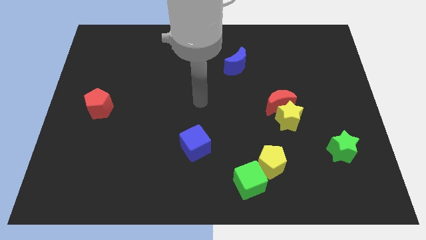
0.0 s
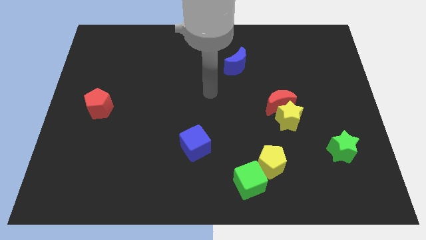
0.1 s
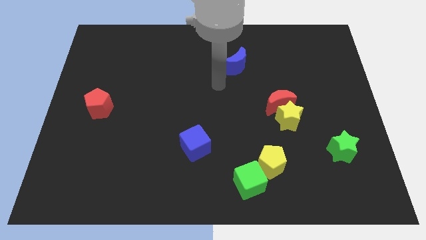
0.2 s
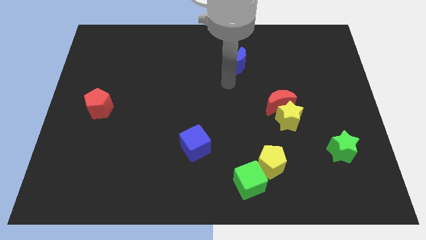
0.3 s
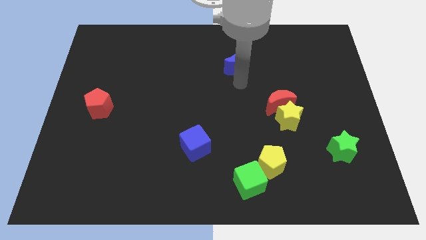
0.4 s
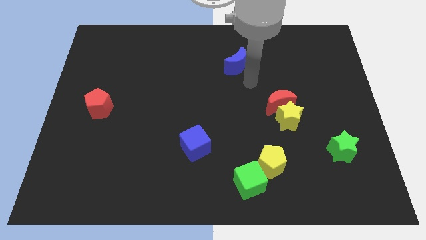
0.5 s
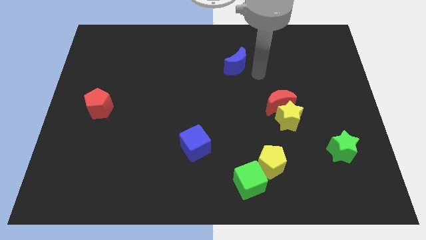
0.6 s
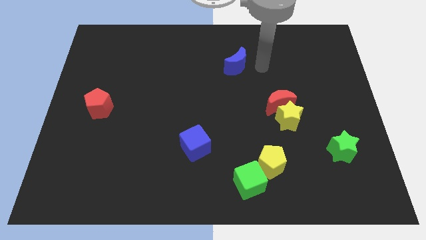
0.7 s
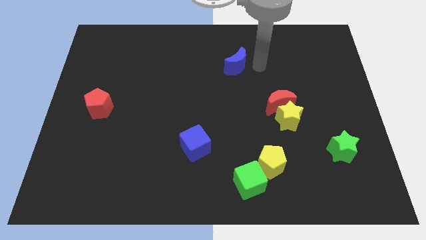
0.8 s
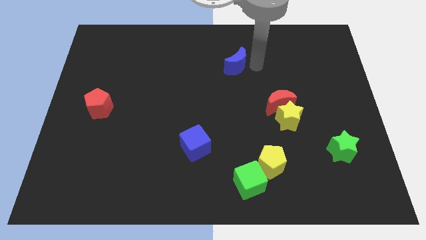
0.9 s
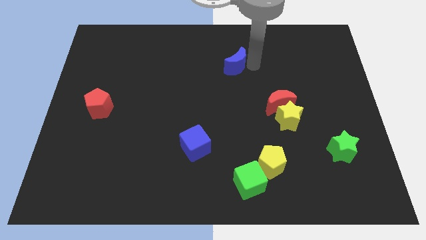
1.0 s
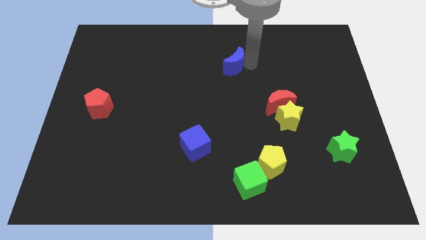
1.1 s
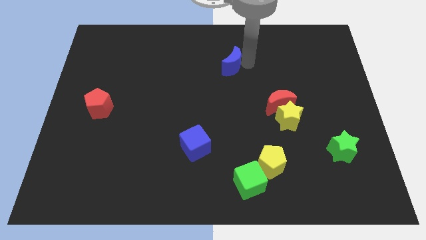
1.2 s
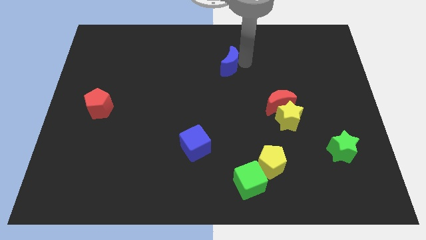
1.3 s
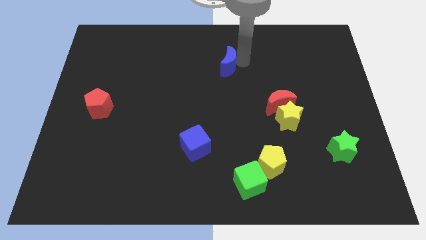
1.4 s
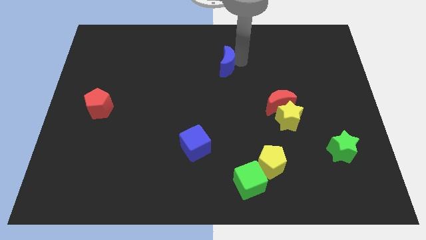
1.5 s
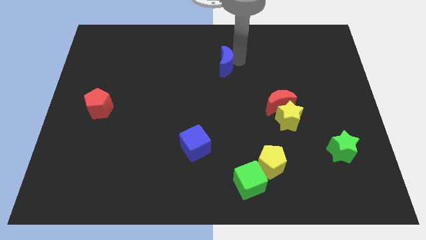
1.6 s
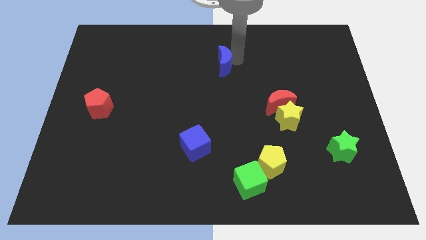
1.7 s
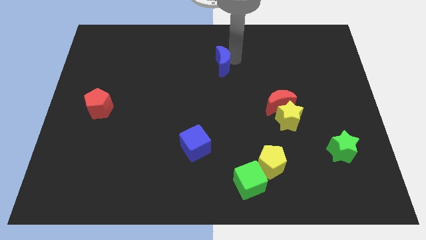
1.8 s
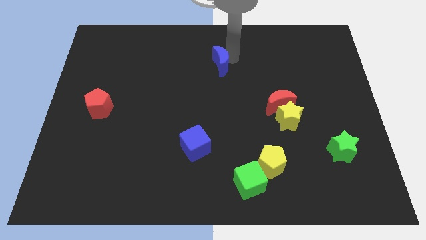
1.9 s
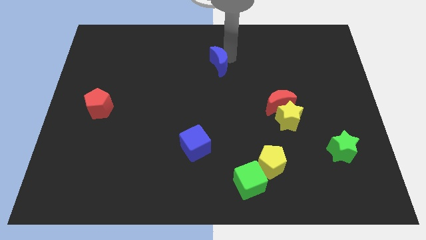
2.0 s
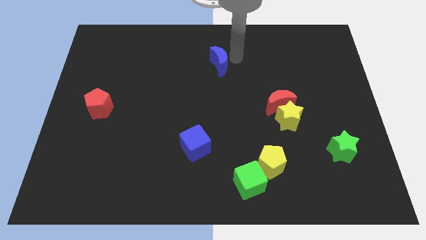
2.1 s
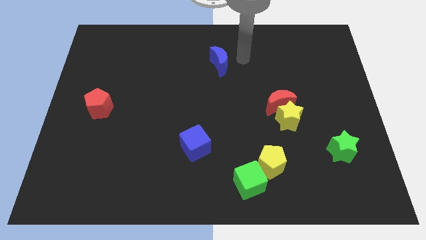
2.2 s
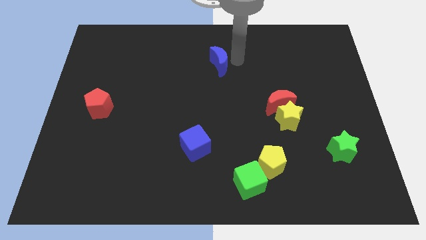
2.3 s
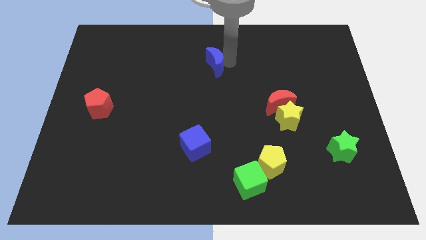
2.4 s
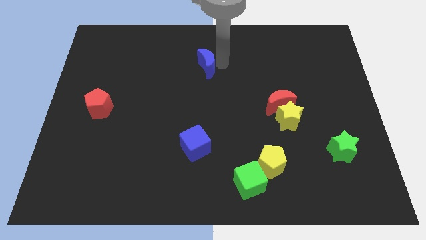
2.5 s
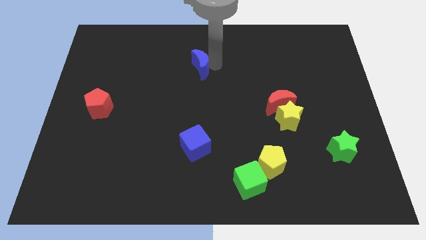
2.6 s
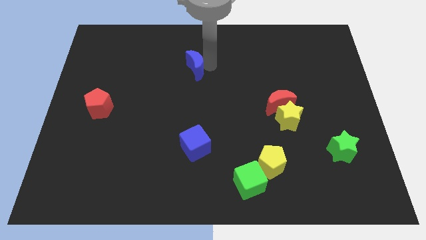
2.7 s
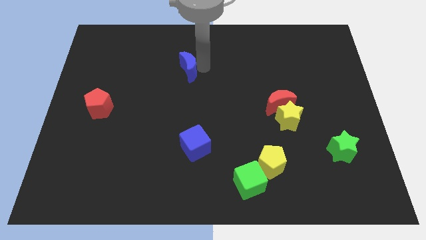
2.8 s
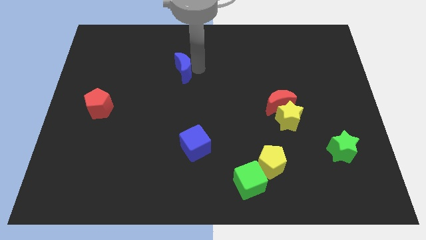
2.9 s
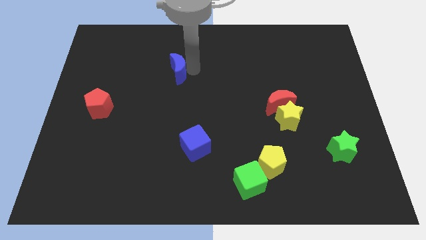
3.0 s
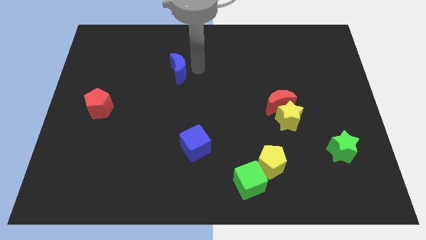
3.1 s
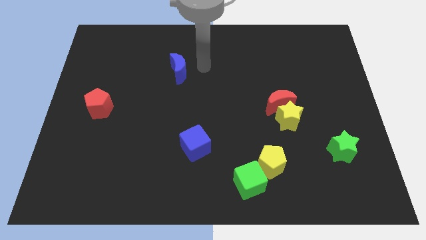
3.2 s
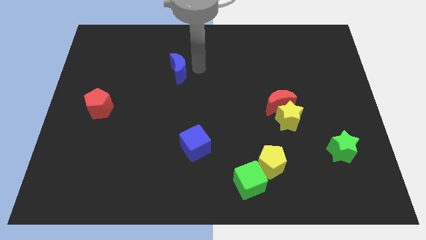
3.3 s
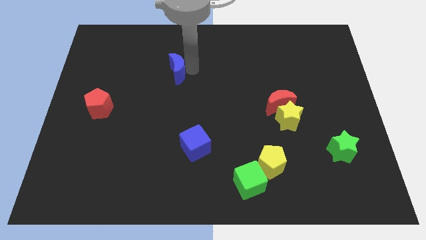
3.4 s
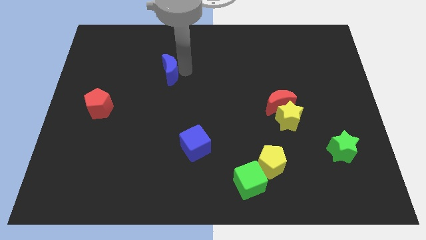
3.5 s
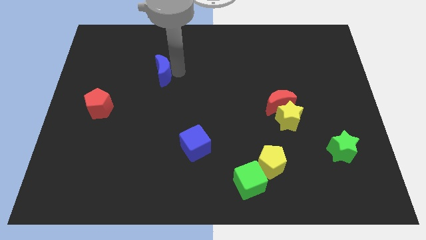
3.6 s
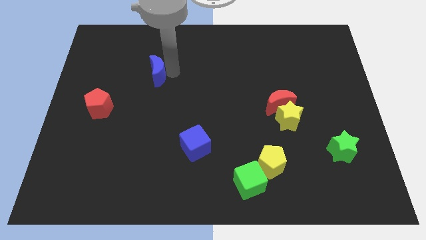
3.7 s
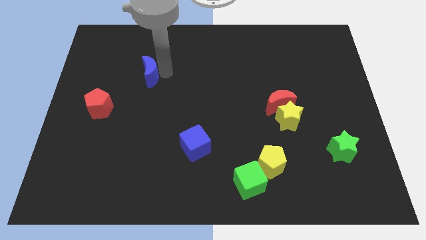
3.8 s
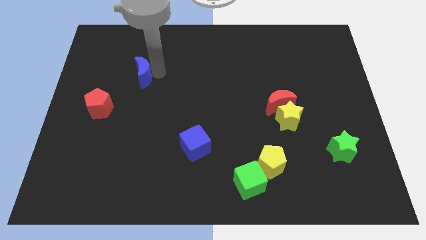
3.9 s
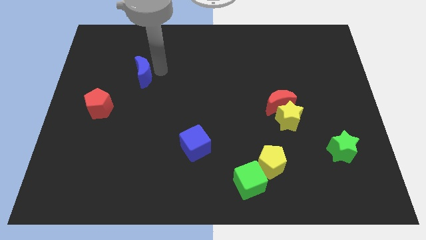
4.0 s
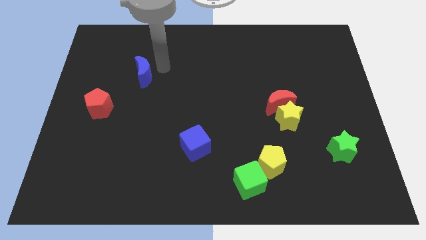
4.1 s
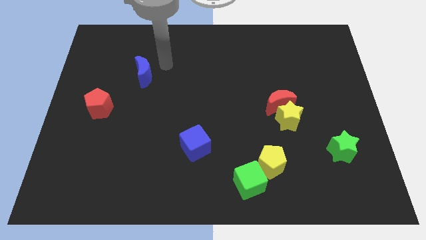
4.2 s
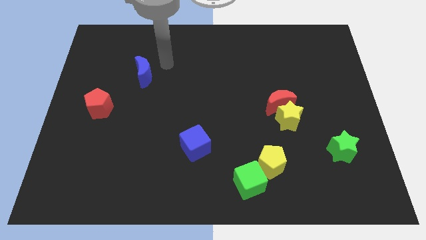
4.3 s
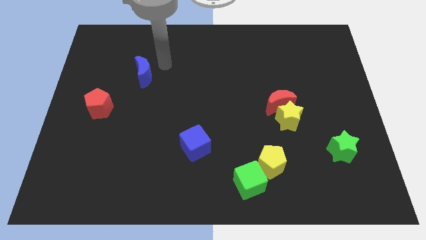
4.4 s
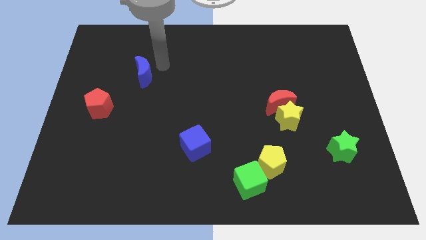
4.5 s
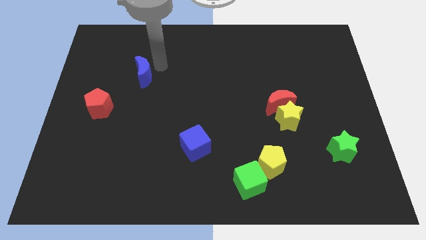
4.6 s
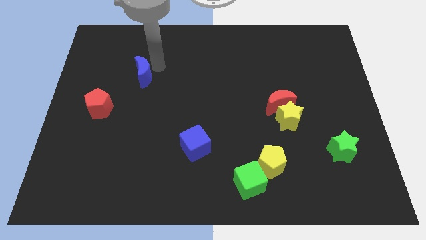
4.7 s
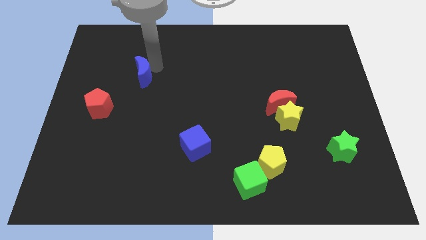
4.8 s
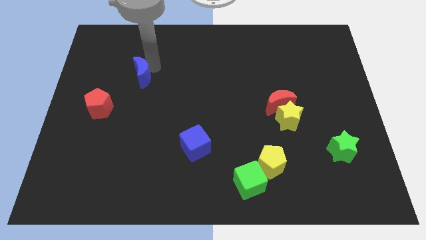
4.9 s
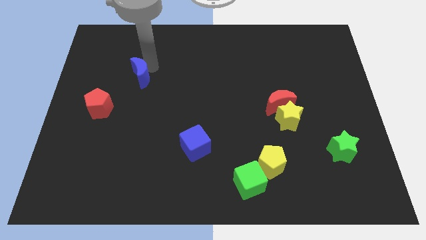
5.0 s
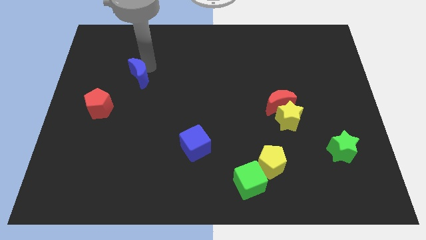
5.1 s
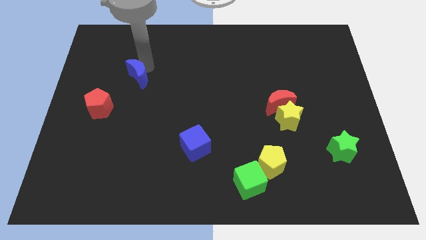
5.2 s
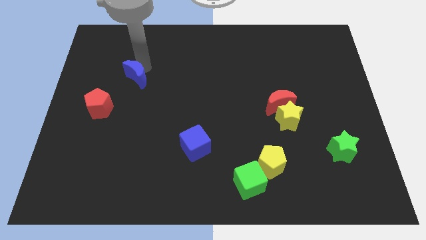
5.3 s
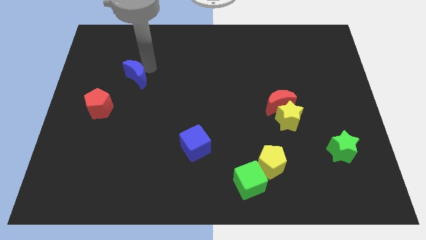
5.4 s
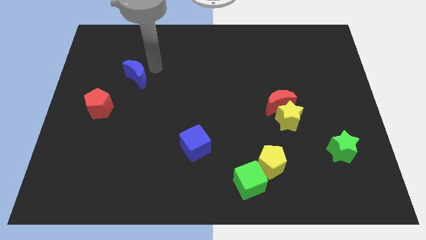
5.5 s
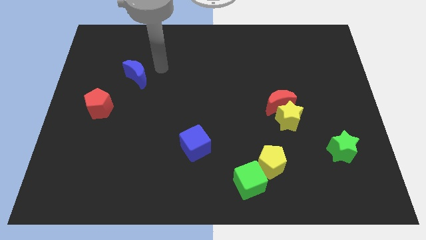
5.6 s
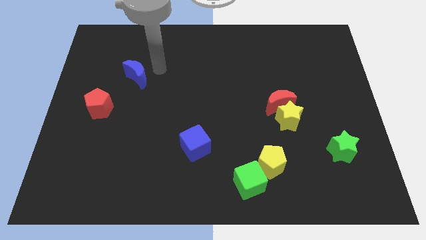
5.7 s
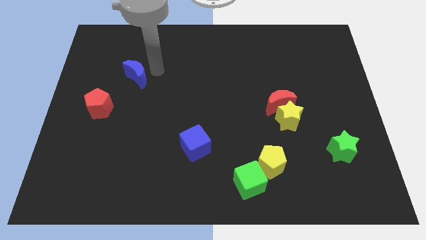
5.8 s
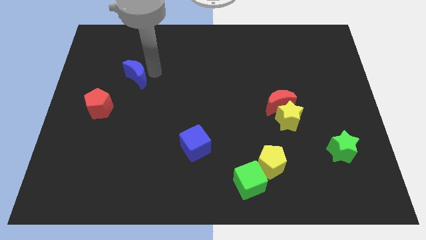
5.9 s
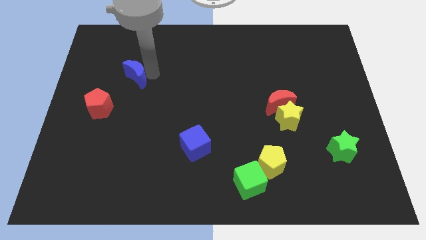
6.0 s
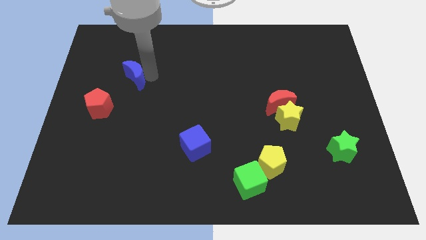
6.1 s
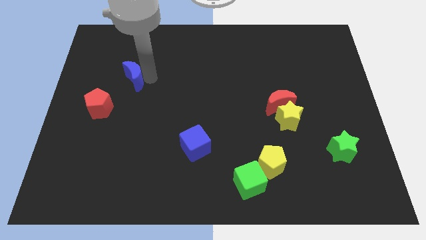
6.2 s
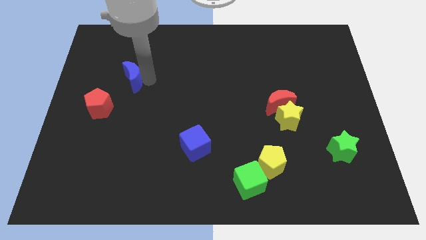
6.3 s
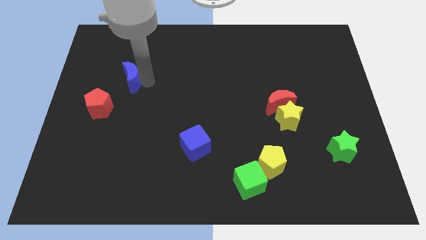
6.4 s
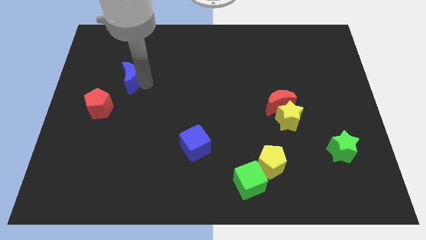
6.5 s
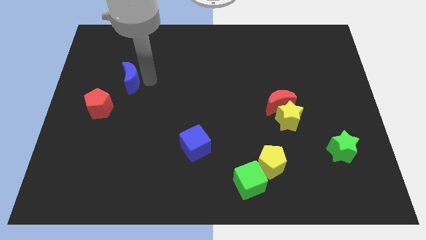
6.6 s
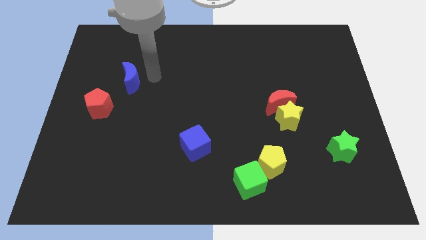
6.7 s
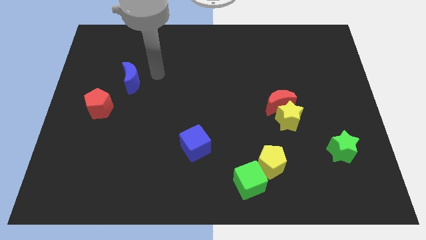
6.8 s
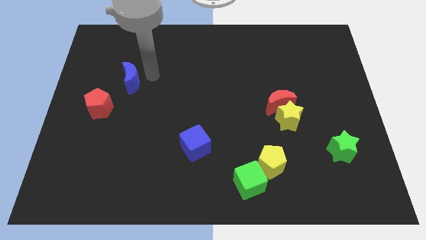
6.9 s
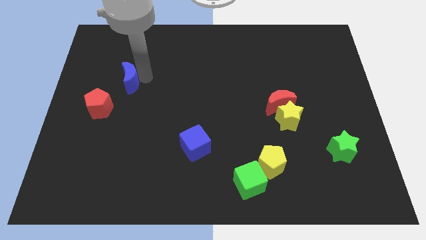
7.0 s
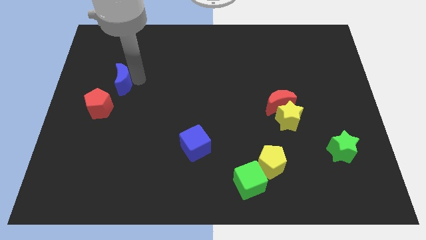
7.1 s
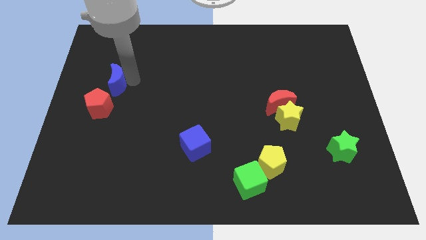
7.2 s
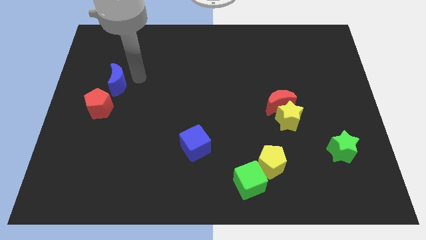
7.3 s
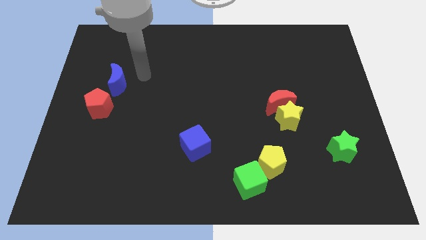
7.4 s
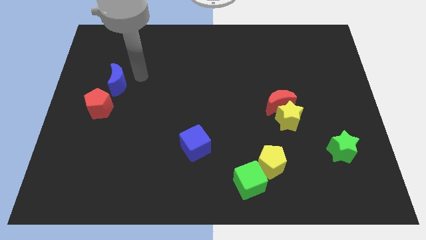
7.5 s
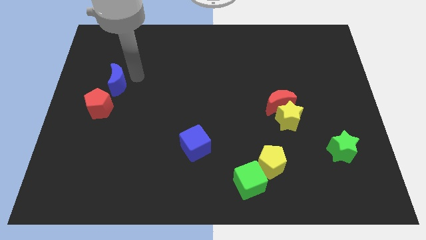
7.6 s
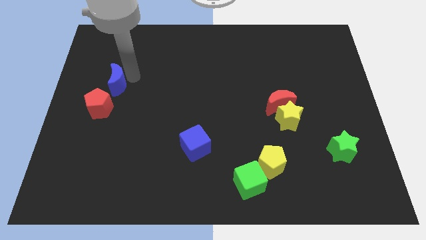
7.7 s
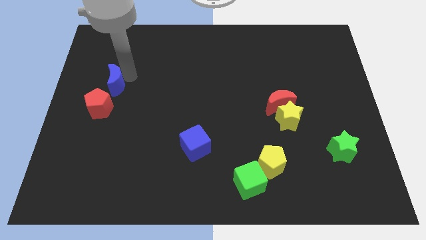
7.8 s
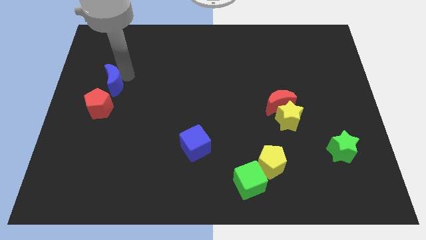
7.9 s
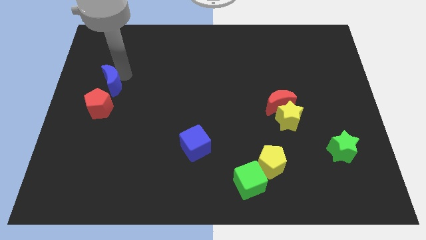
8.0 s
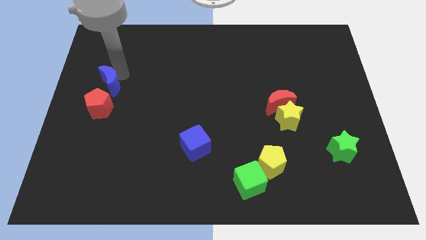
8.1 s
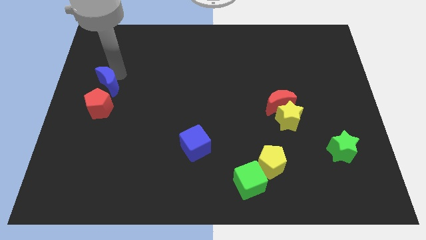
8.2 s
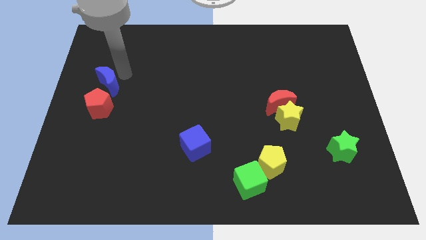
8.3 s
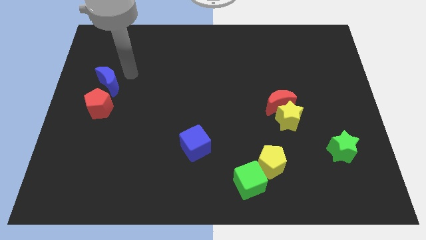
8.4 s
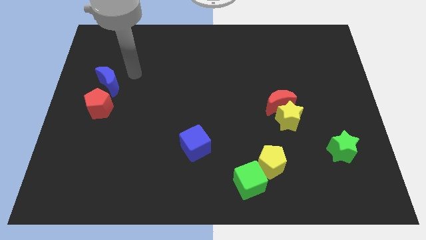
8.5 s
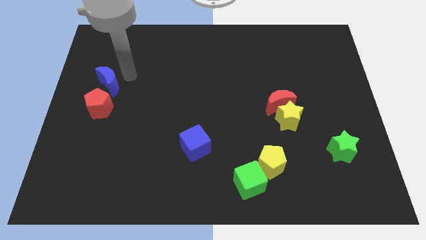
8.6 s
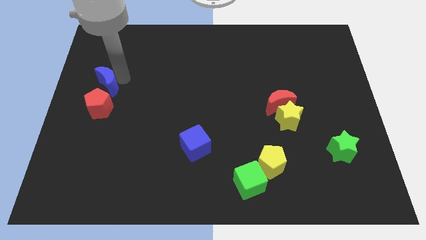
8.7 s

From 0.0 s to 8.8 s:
put the blue moon to the left side of the board
